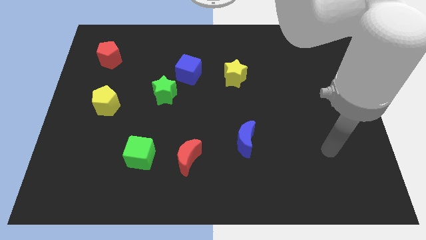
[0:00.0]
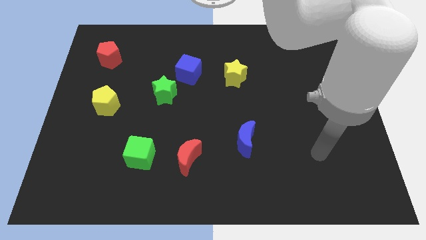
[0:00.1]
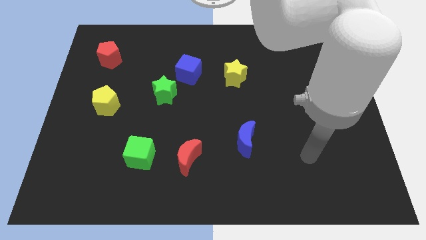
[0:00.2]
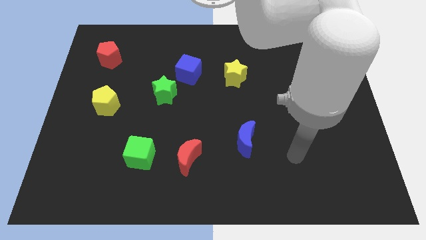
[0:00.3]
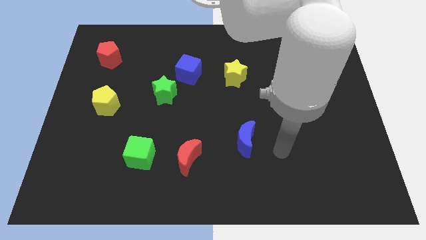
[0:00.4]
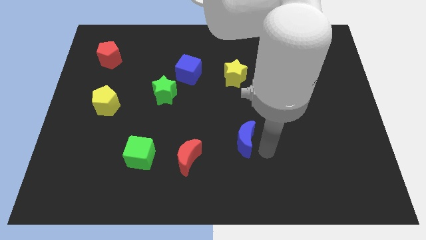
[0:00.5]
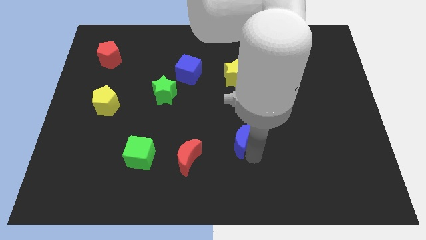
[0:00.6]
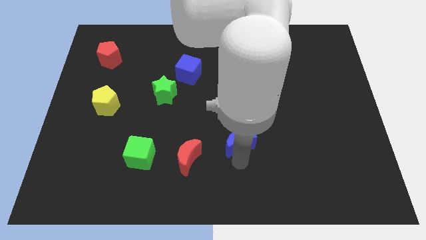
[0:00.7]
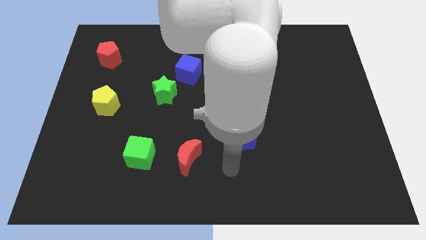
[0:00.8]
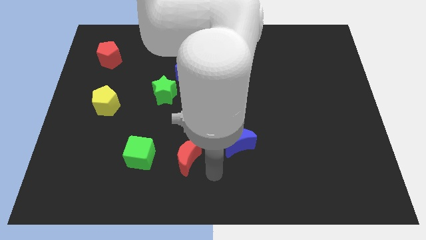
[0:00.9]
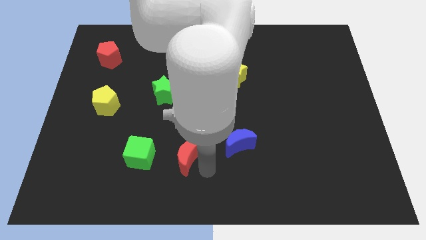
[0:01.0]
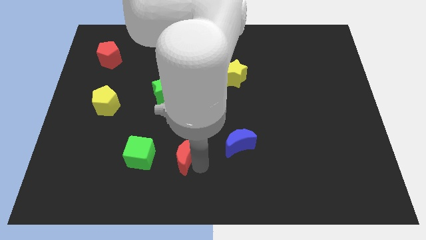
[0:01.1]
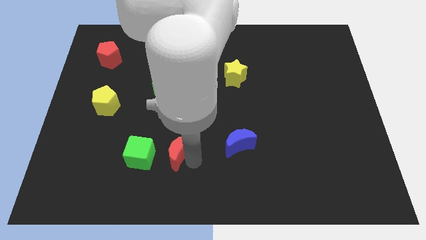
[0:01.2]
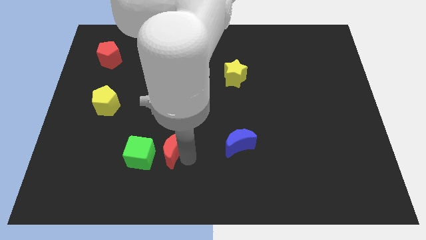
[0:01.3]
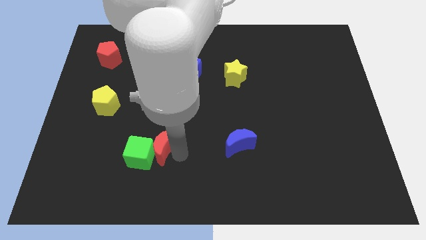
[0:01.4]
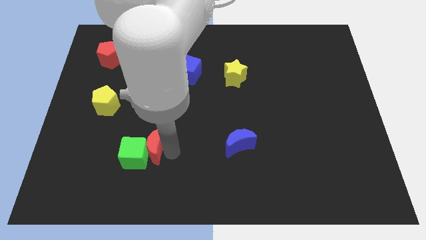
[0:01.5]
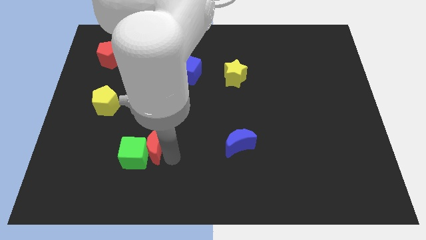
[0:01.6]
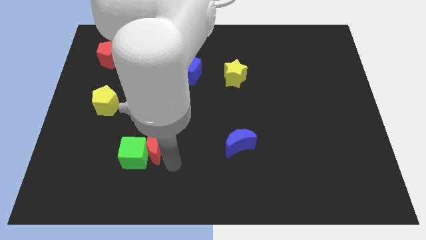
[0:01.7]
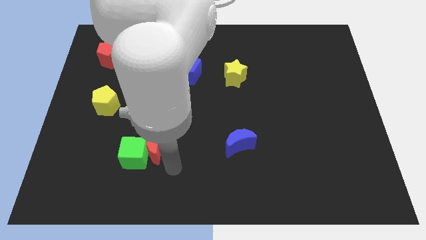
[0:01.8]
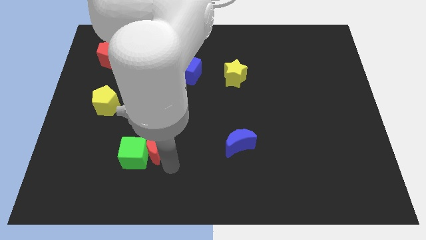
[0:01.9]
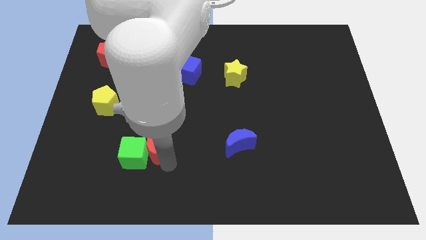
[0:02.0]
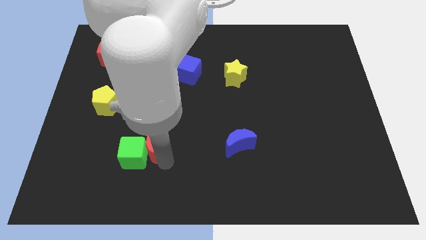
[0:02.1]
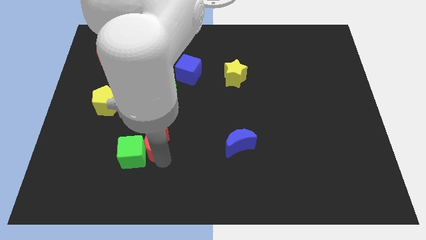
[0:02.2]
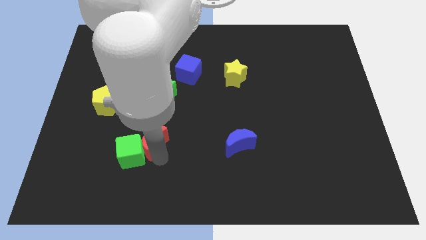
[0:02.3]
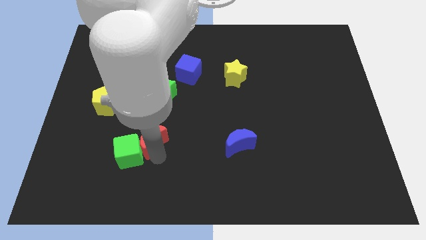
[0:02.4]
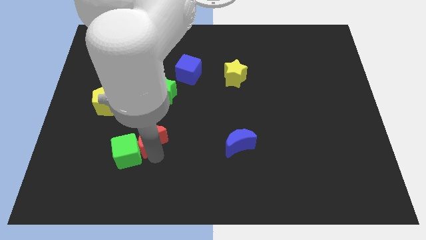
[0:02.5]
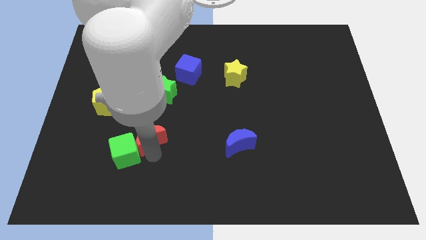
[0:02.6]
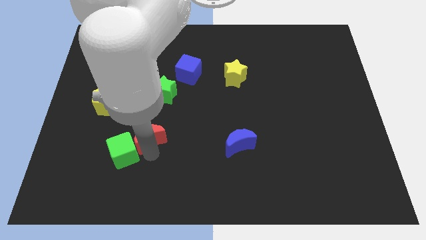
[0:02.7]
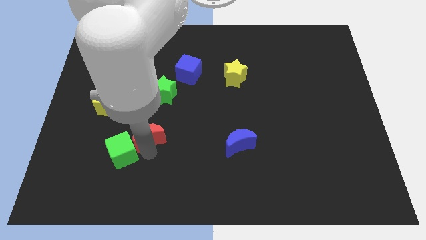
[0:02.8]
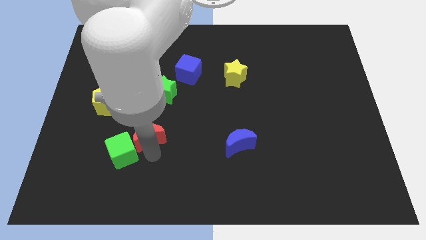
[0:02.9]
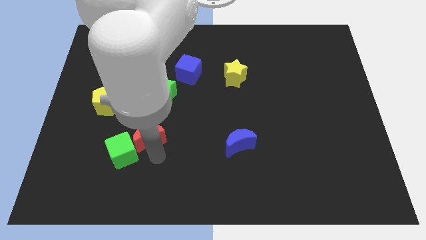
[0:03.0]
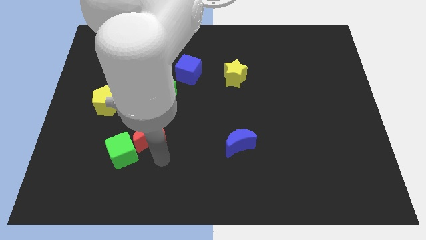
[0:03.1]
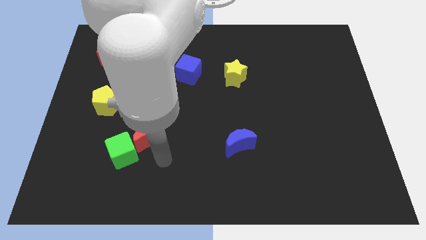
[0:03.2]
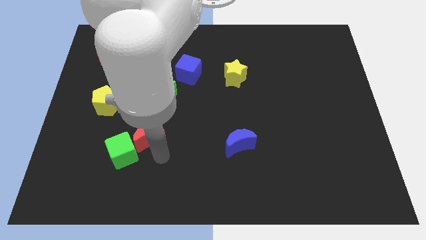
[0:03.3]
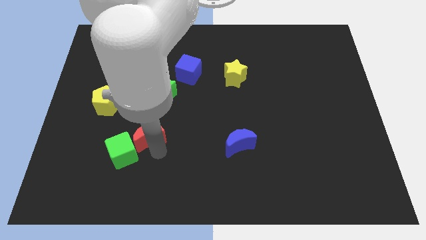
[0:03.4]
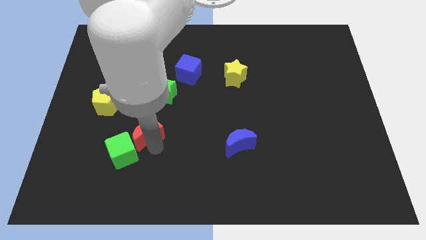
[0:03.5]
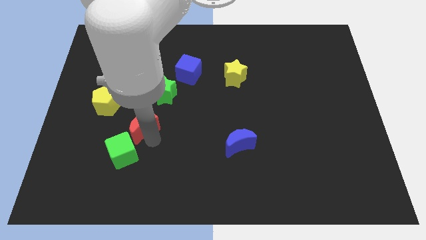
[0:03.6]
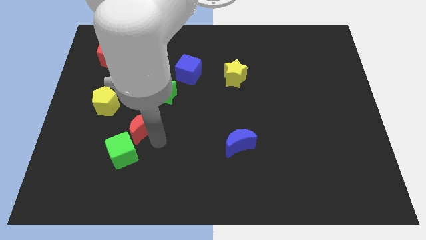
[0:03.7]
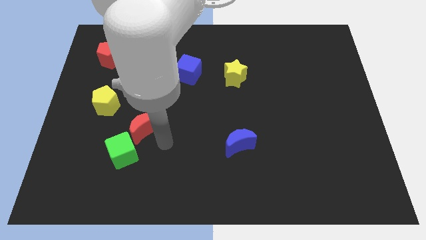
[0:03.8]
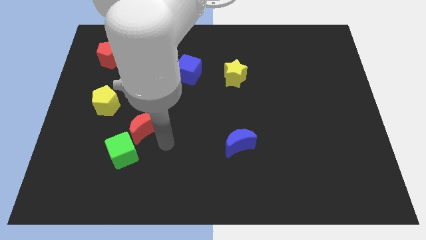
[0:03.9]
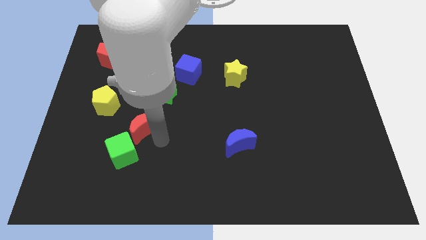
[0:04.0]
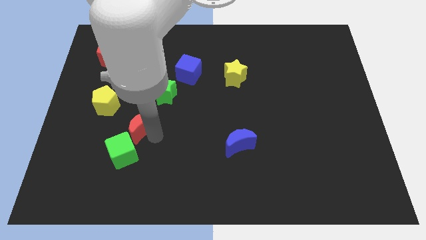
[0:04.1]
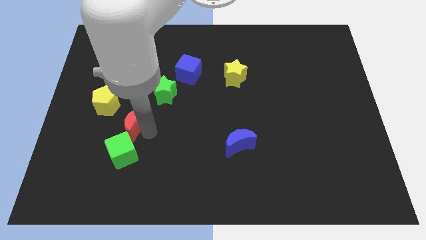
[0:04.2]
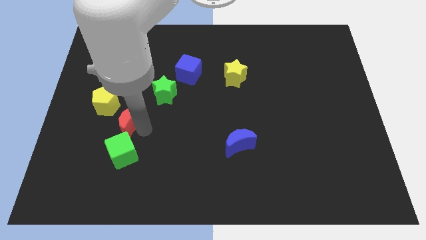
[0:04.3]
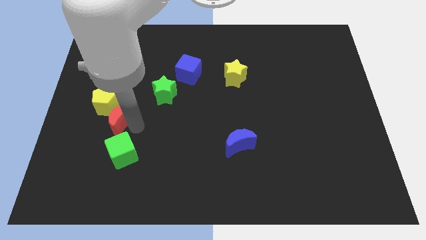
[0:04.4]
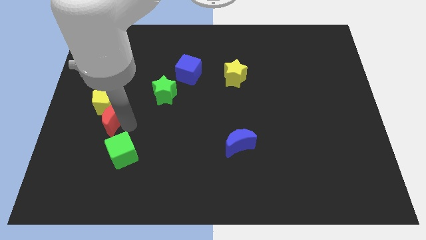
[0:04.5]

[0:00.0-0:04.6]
slide the red moon next to the yellow pentagon

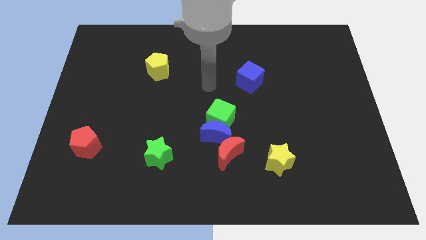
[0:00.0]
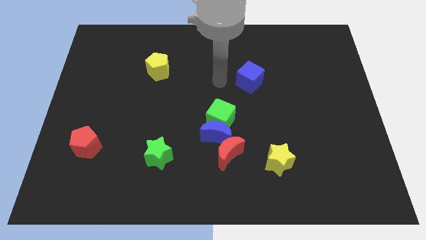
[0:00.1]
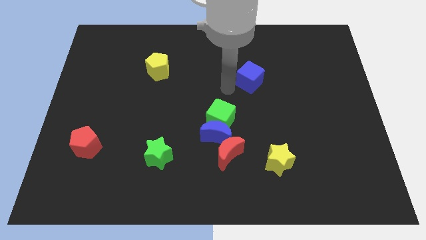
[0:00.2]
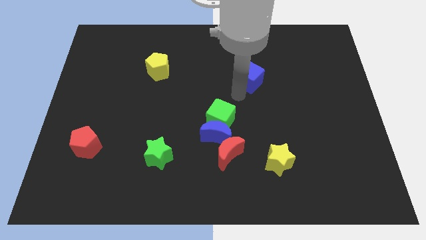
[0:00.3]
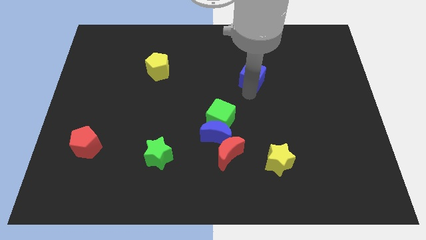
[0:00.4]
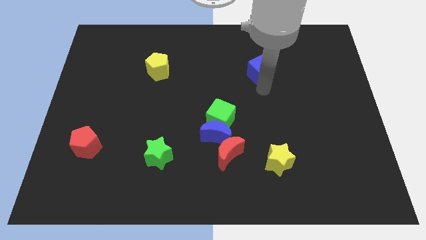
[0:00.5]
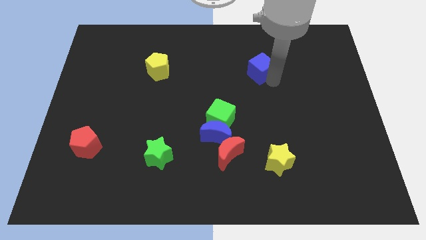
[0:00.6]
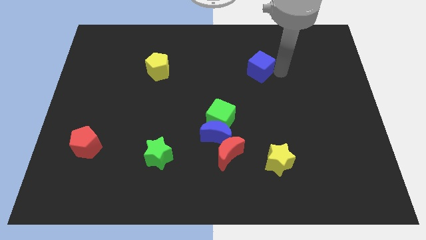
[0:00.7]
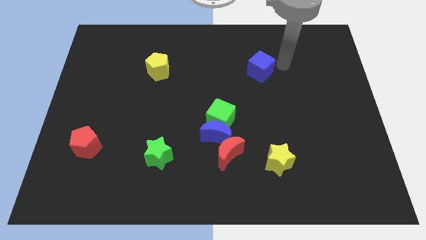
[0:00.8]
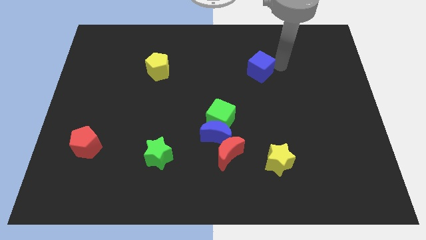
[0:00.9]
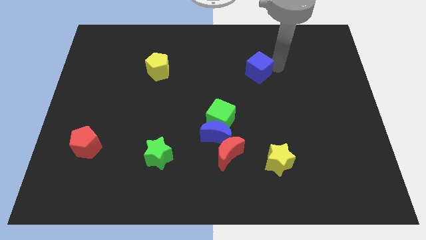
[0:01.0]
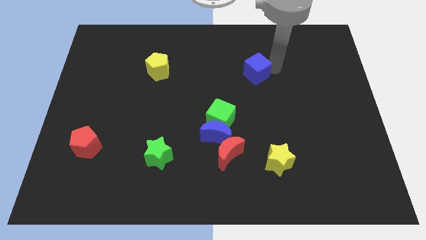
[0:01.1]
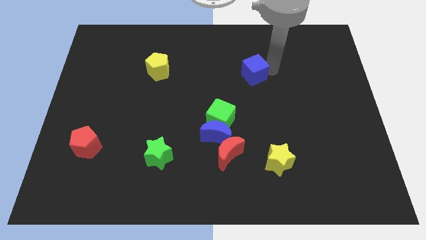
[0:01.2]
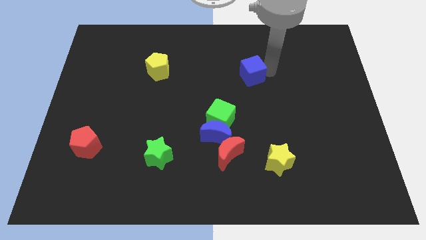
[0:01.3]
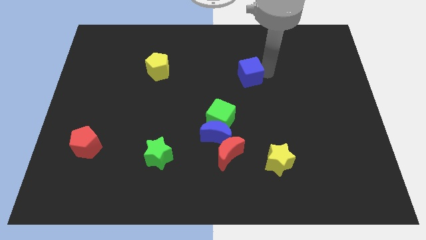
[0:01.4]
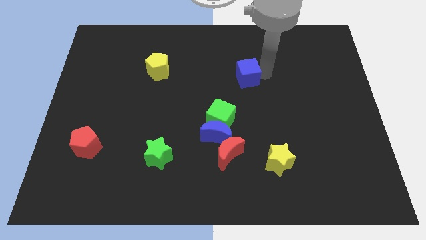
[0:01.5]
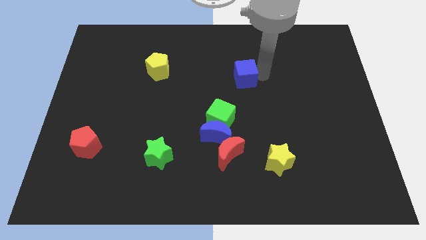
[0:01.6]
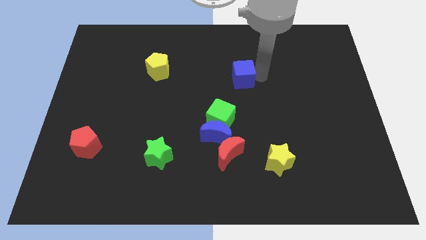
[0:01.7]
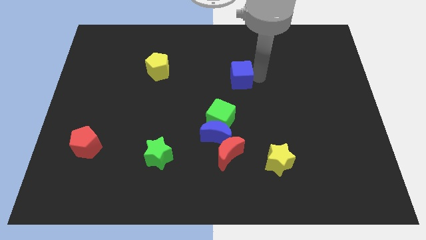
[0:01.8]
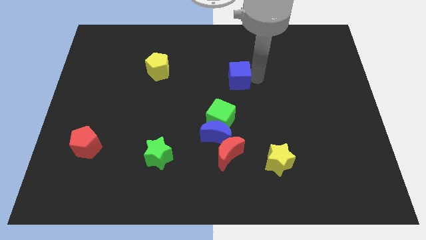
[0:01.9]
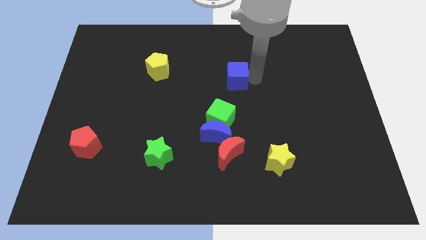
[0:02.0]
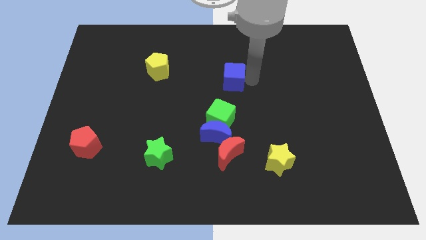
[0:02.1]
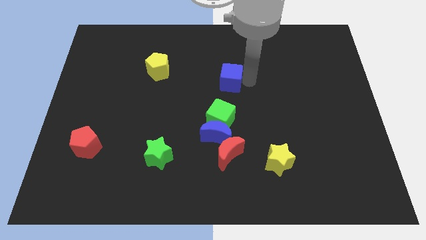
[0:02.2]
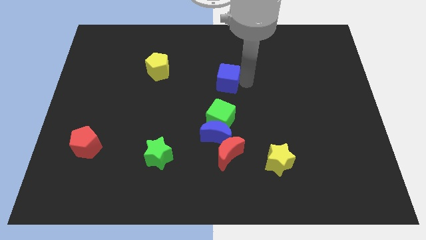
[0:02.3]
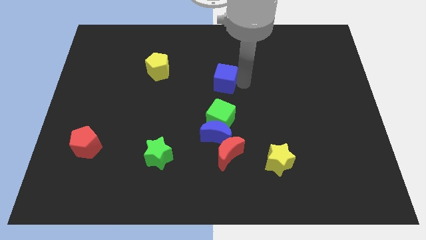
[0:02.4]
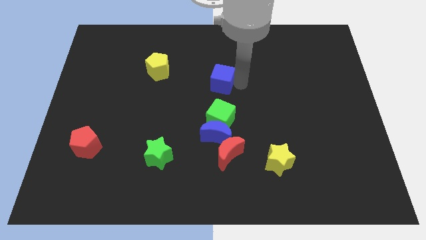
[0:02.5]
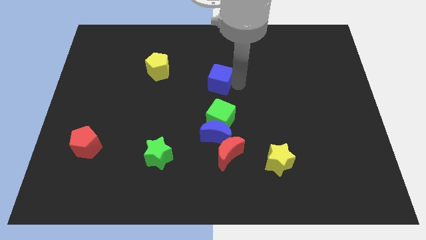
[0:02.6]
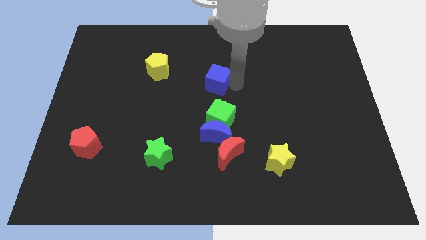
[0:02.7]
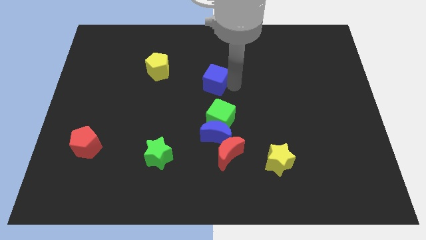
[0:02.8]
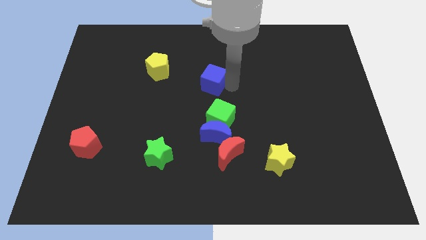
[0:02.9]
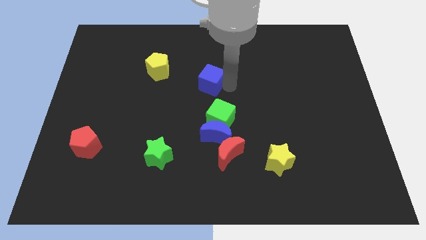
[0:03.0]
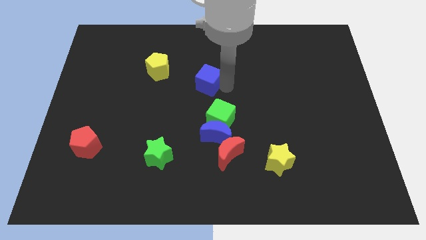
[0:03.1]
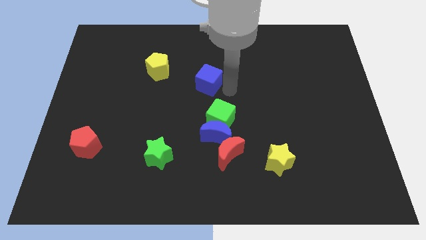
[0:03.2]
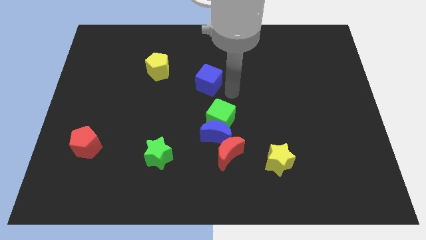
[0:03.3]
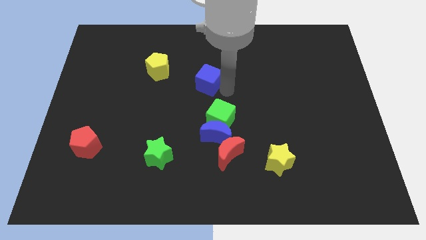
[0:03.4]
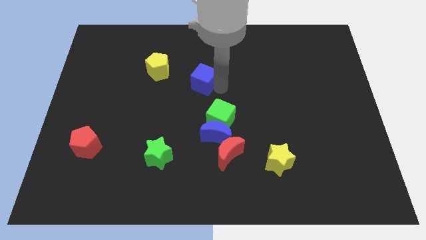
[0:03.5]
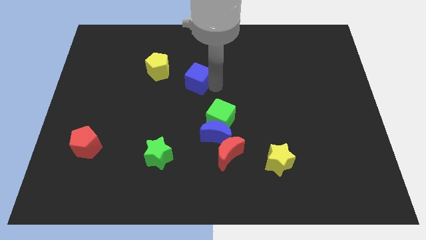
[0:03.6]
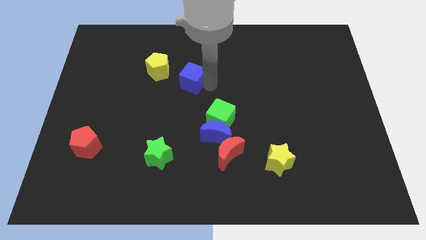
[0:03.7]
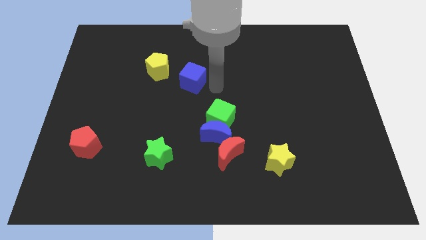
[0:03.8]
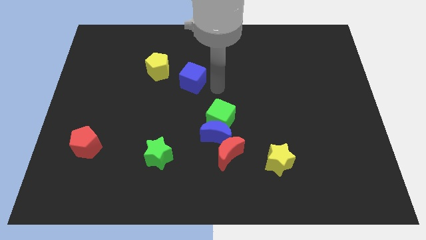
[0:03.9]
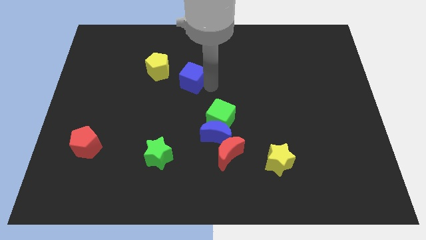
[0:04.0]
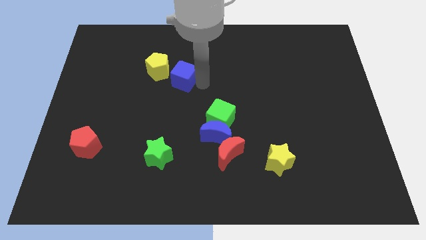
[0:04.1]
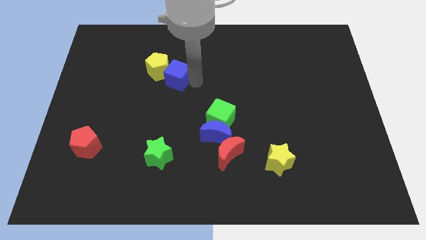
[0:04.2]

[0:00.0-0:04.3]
push the blue cube close to the yellow pentagon
